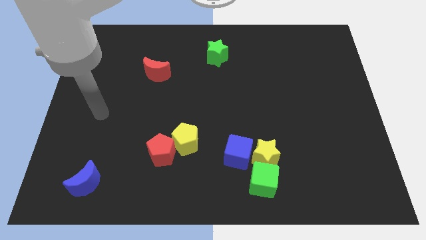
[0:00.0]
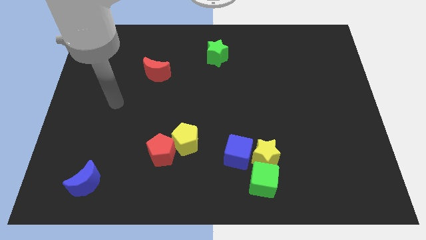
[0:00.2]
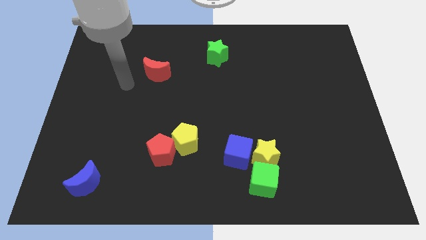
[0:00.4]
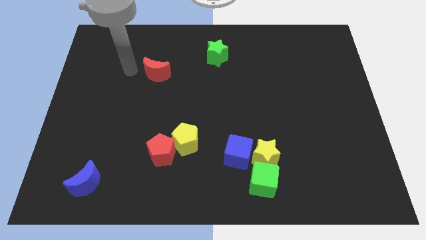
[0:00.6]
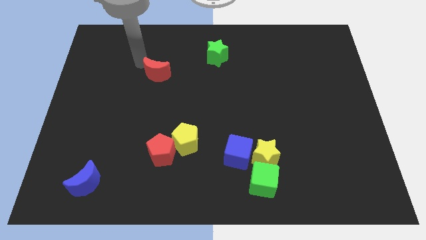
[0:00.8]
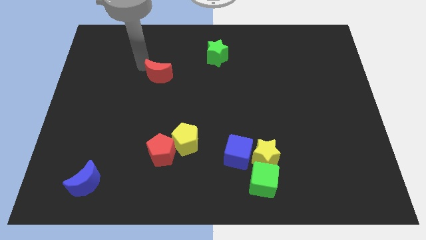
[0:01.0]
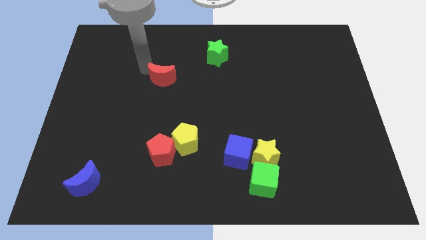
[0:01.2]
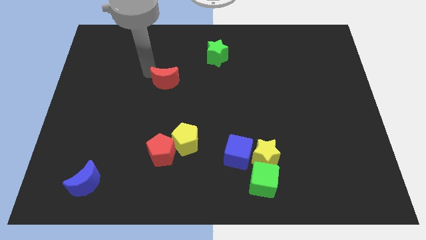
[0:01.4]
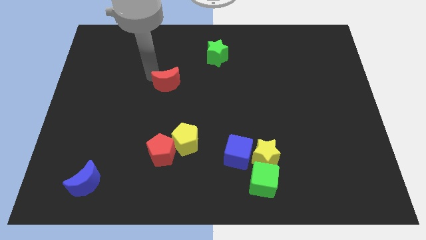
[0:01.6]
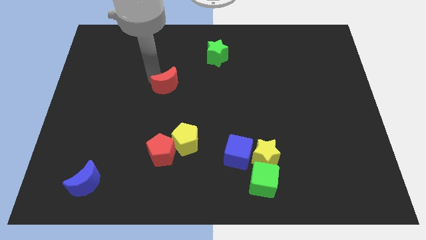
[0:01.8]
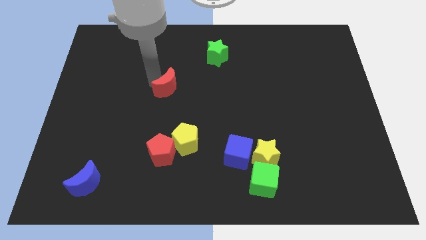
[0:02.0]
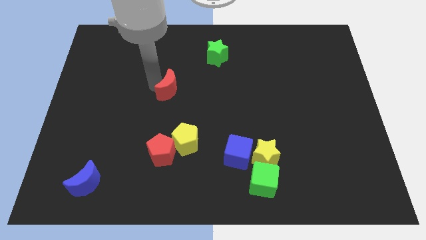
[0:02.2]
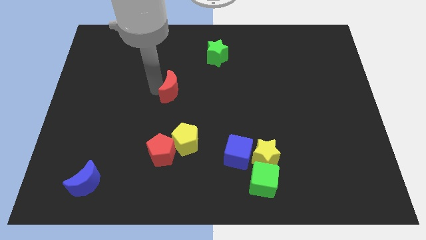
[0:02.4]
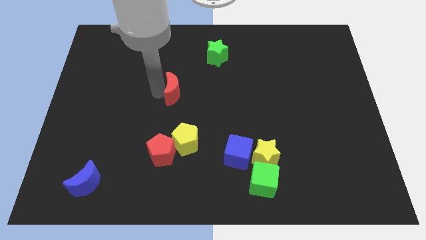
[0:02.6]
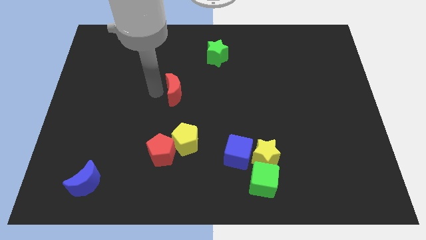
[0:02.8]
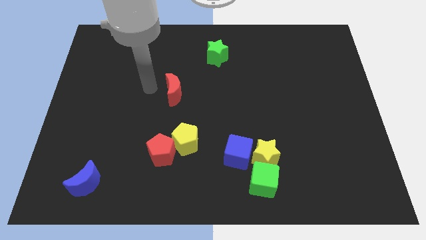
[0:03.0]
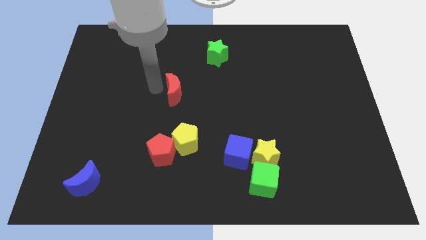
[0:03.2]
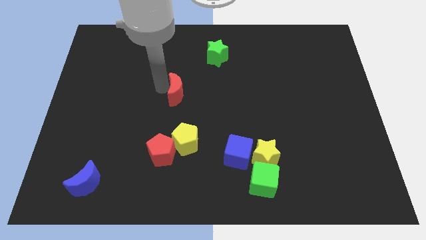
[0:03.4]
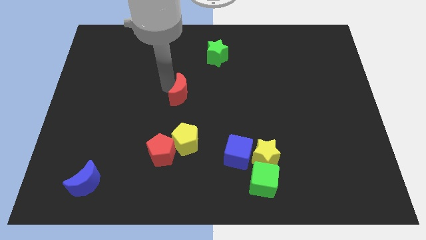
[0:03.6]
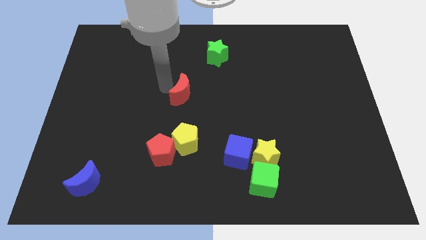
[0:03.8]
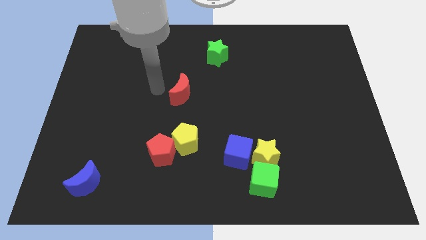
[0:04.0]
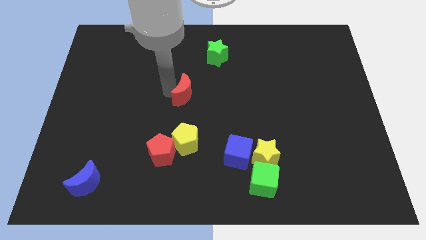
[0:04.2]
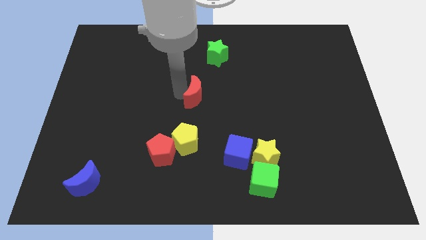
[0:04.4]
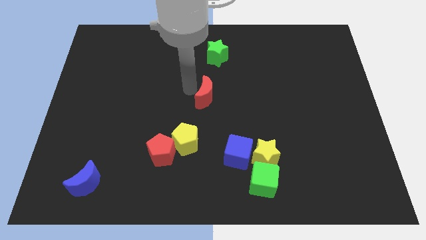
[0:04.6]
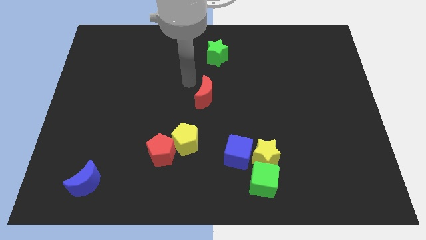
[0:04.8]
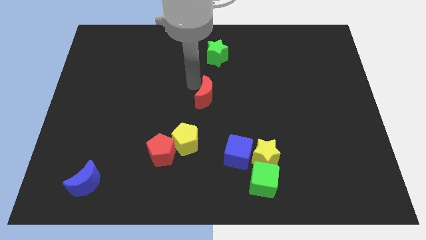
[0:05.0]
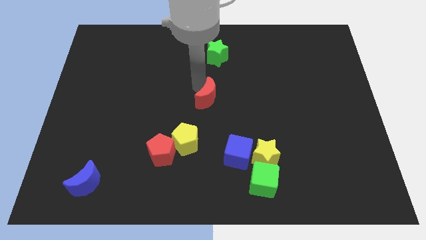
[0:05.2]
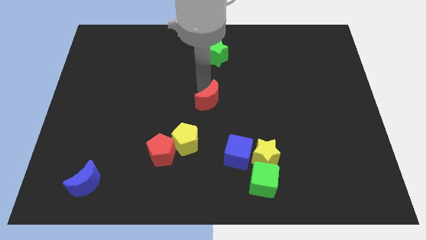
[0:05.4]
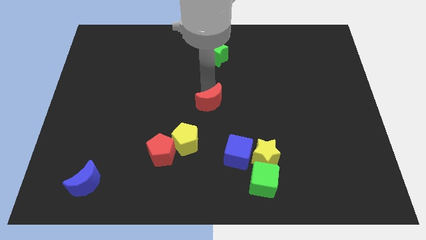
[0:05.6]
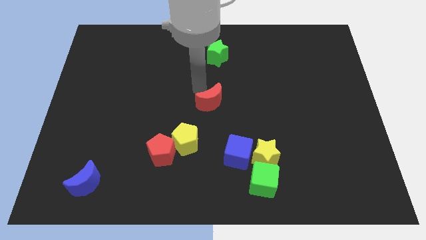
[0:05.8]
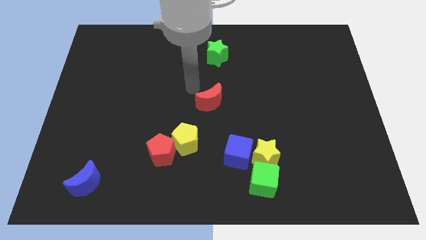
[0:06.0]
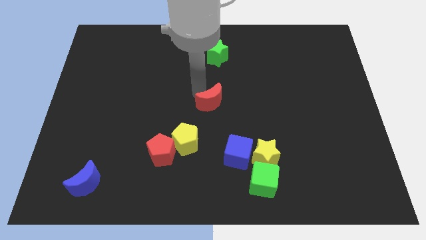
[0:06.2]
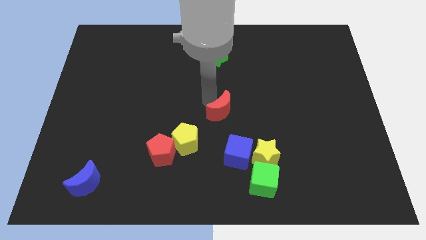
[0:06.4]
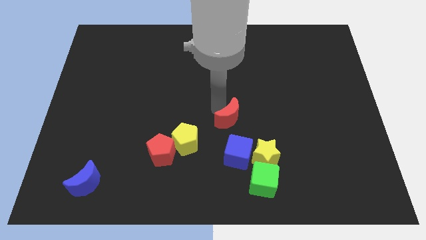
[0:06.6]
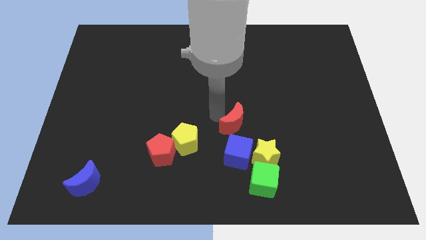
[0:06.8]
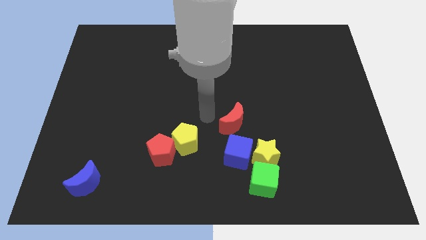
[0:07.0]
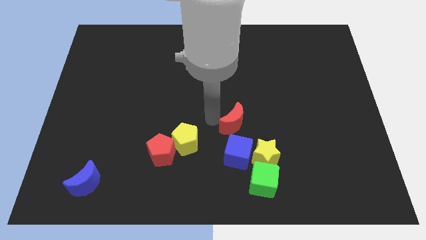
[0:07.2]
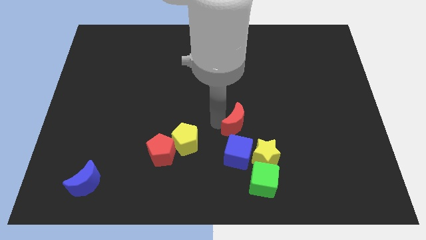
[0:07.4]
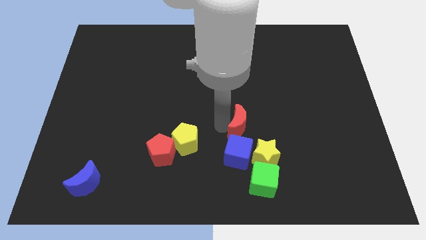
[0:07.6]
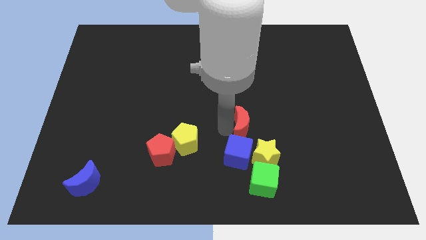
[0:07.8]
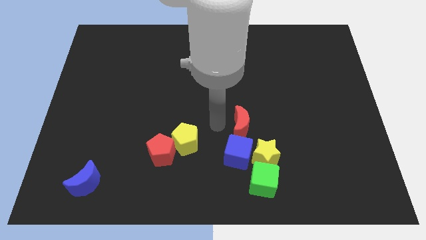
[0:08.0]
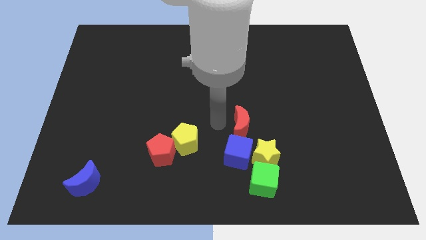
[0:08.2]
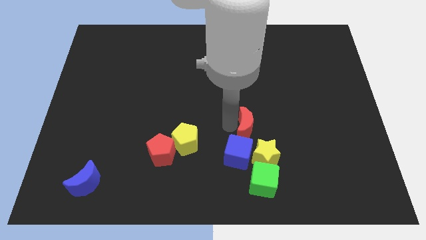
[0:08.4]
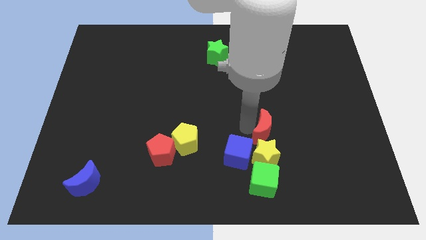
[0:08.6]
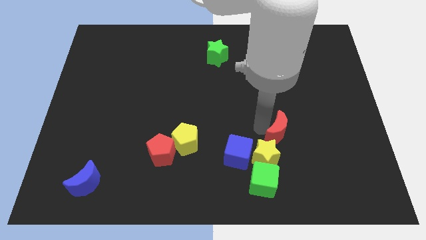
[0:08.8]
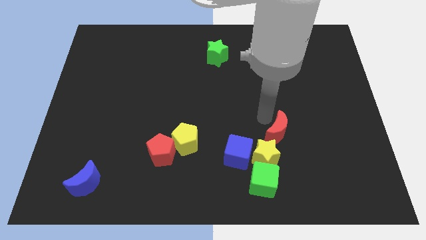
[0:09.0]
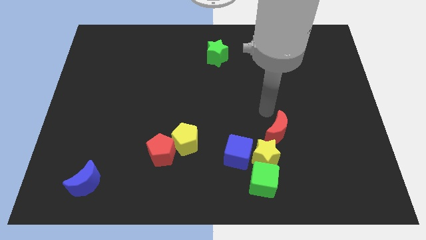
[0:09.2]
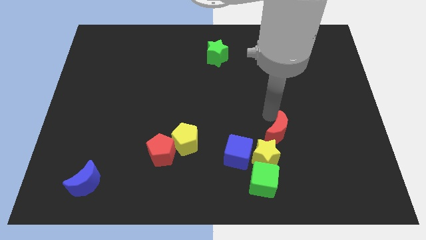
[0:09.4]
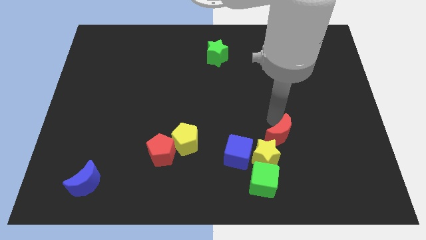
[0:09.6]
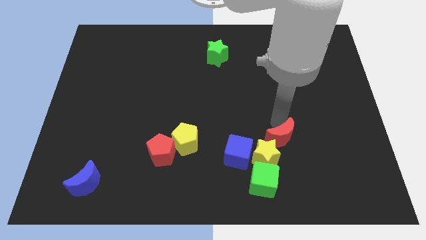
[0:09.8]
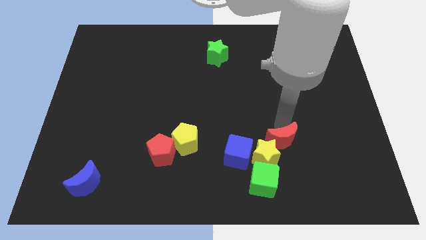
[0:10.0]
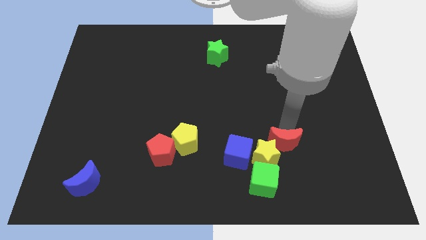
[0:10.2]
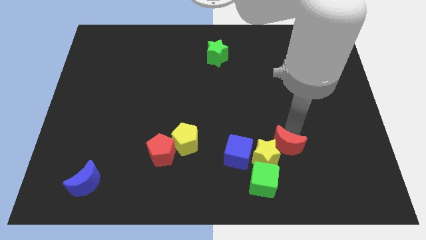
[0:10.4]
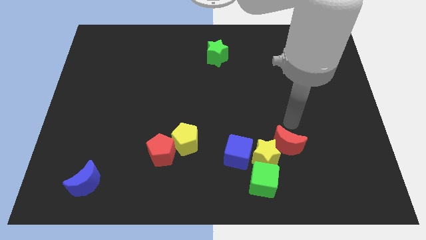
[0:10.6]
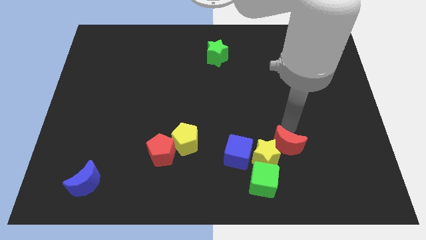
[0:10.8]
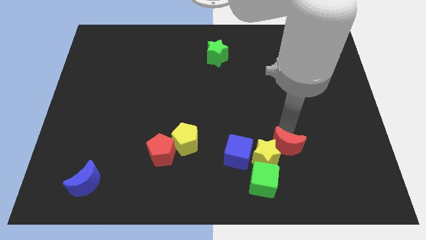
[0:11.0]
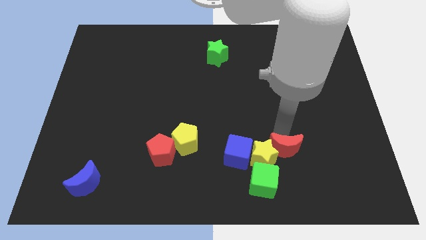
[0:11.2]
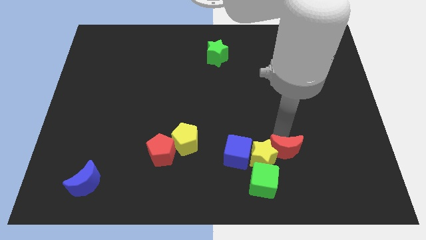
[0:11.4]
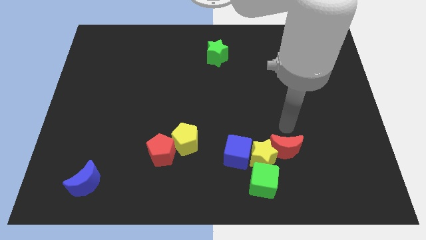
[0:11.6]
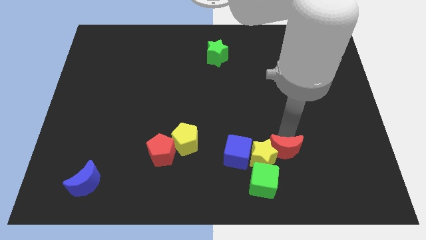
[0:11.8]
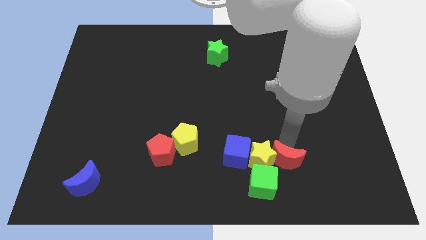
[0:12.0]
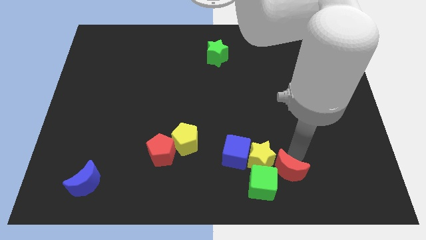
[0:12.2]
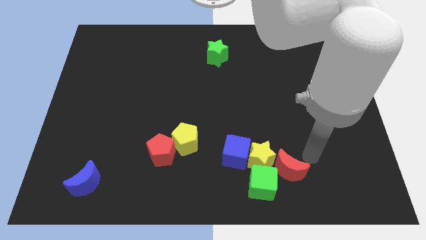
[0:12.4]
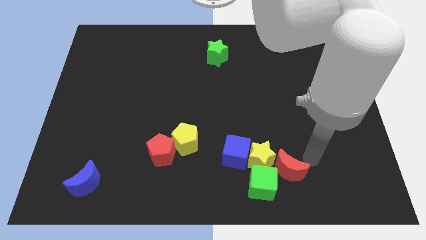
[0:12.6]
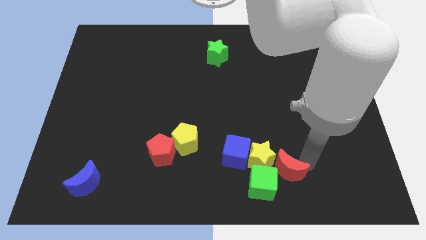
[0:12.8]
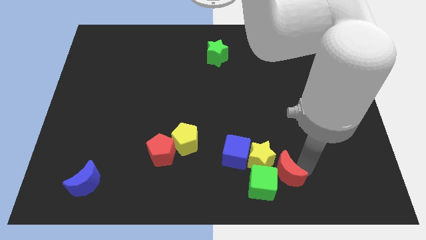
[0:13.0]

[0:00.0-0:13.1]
push the red moon towards the green cube

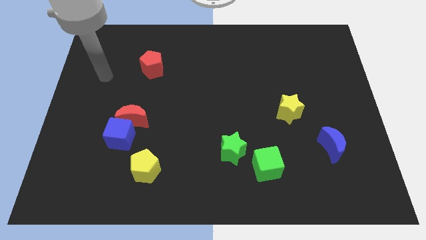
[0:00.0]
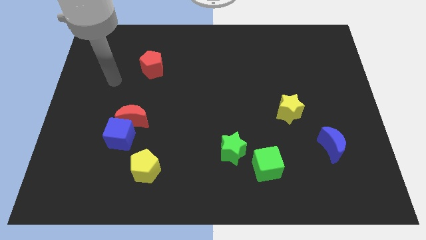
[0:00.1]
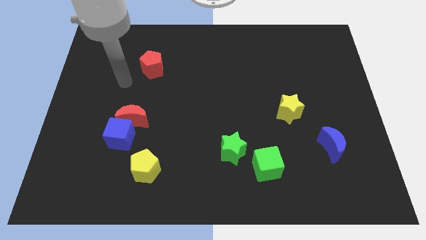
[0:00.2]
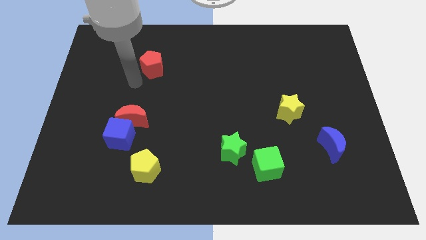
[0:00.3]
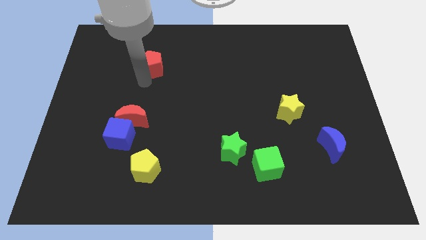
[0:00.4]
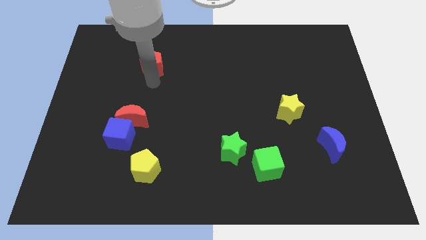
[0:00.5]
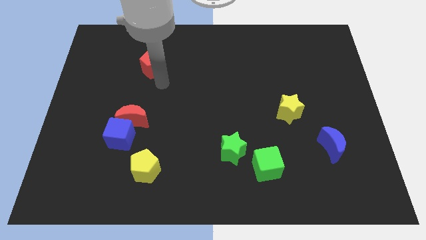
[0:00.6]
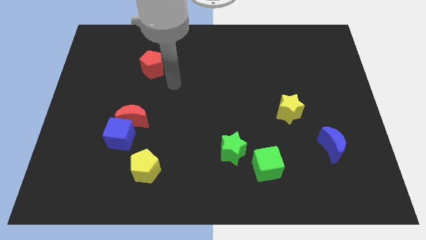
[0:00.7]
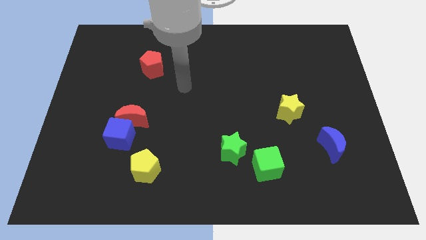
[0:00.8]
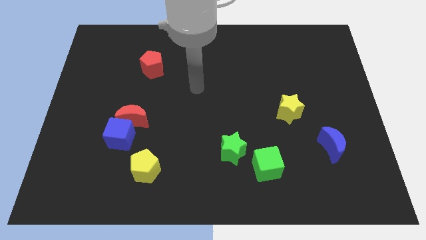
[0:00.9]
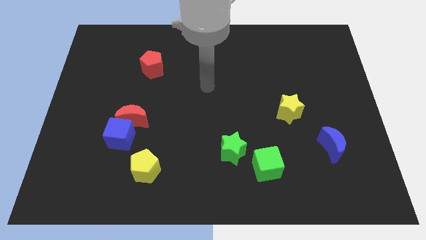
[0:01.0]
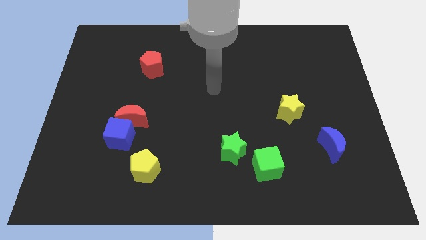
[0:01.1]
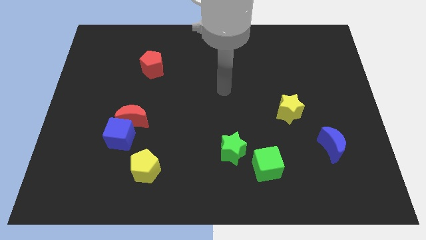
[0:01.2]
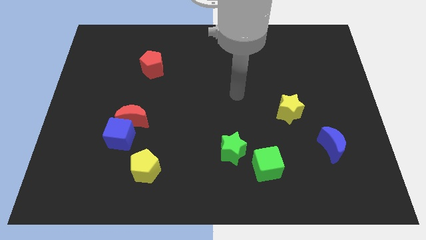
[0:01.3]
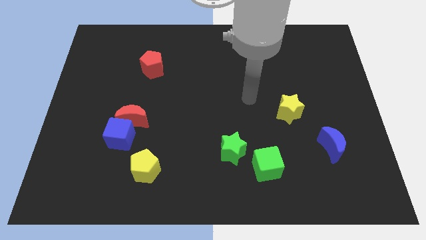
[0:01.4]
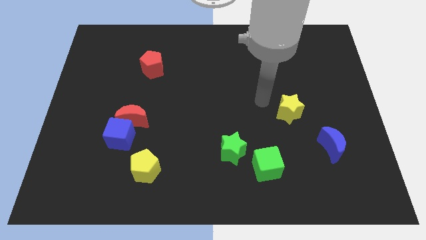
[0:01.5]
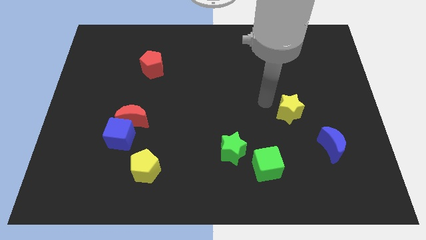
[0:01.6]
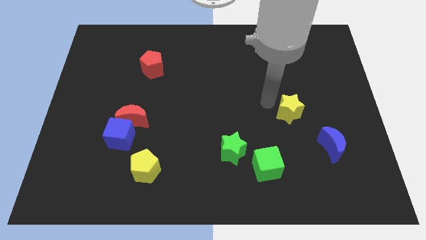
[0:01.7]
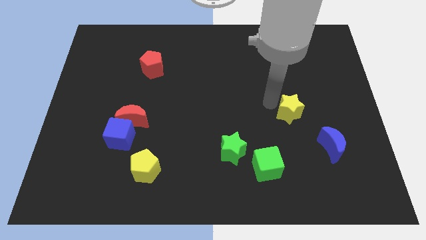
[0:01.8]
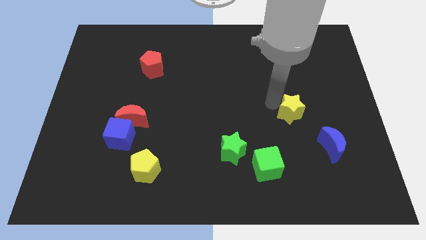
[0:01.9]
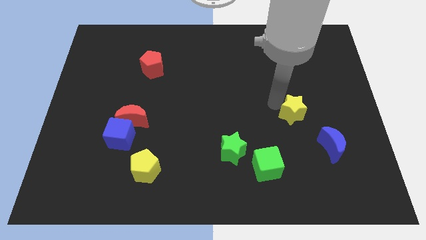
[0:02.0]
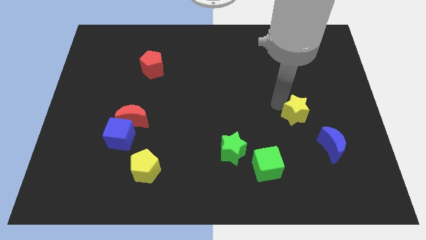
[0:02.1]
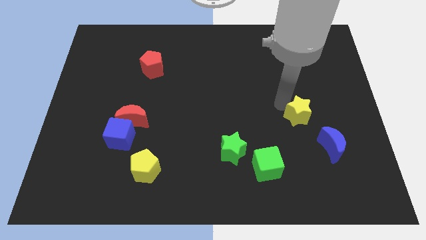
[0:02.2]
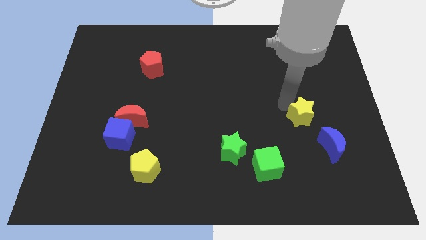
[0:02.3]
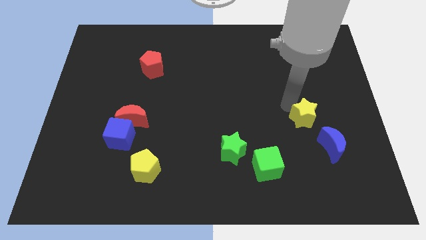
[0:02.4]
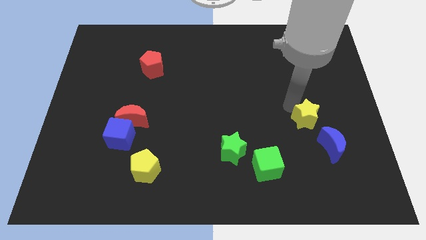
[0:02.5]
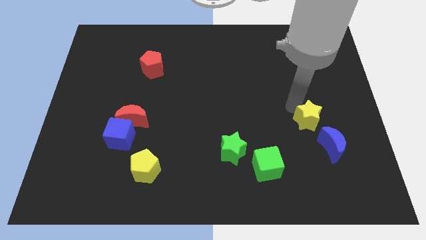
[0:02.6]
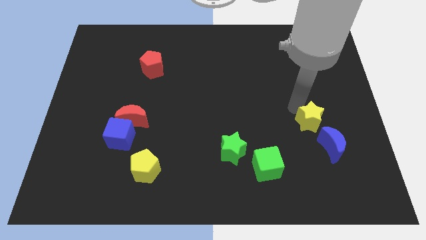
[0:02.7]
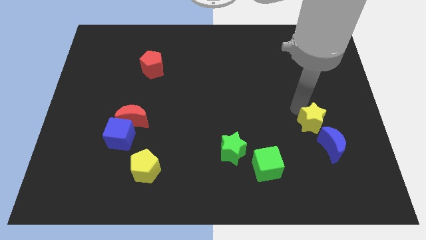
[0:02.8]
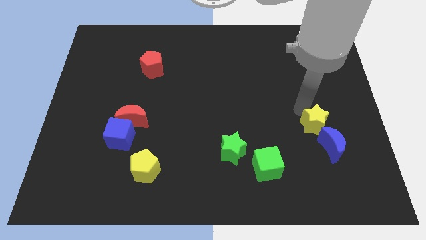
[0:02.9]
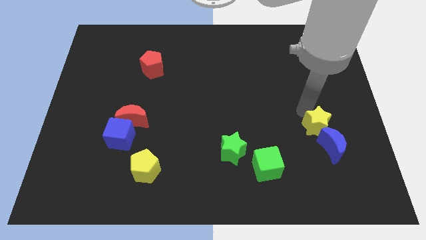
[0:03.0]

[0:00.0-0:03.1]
push the yellow star next to the blue moon
